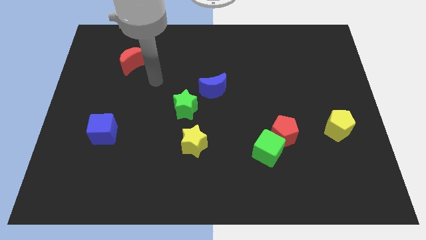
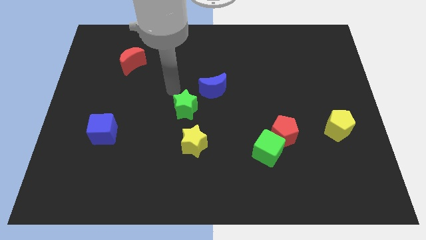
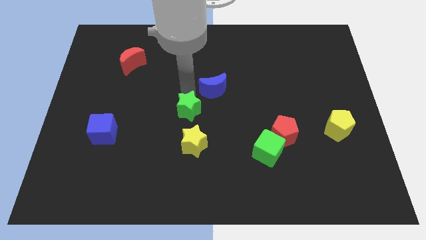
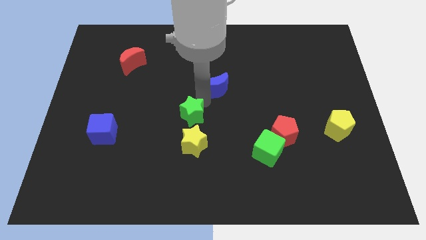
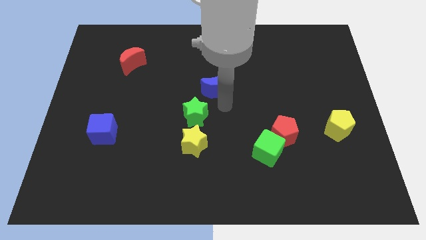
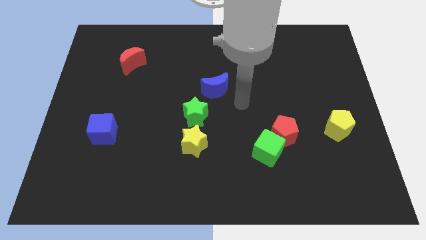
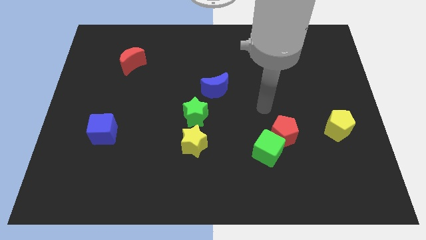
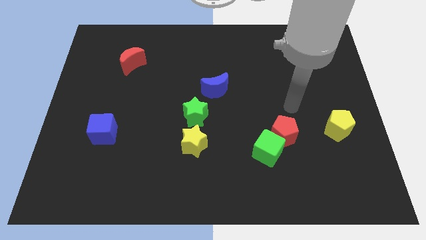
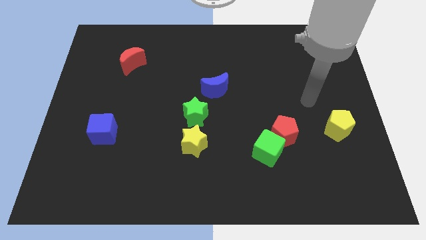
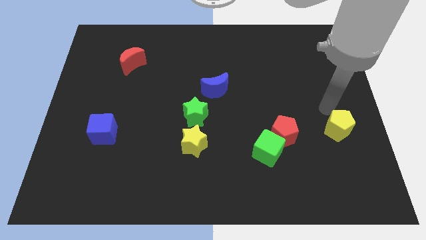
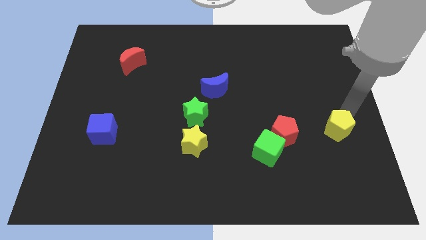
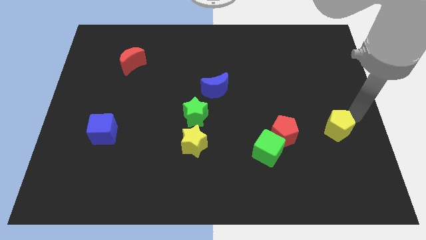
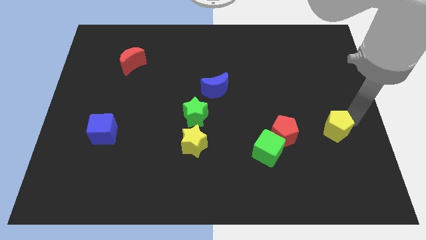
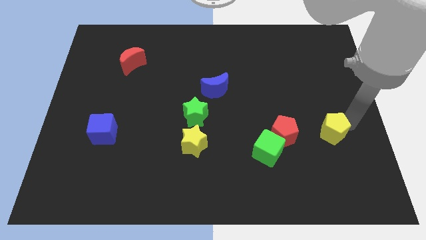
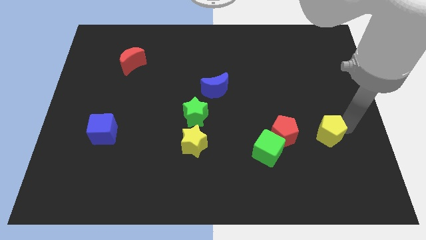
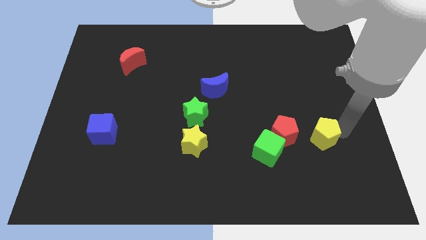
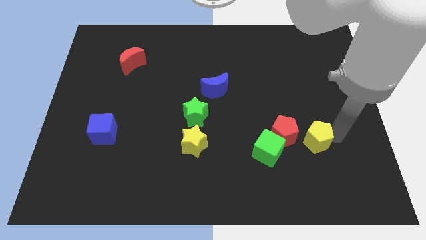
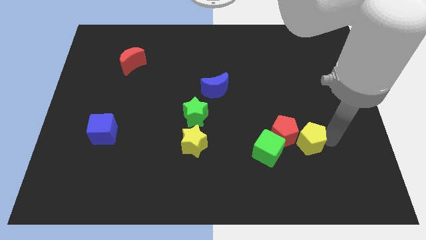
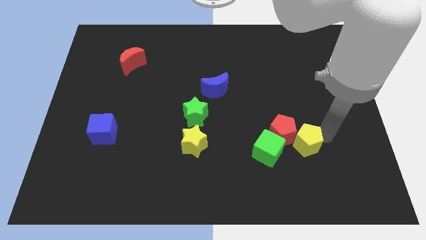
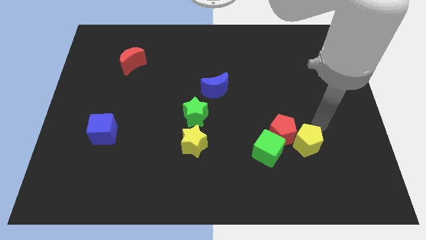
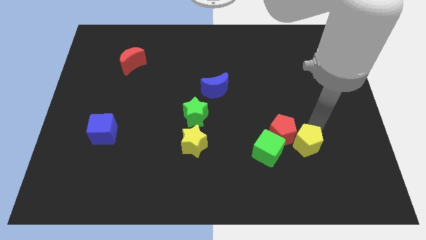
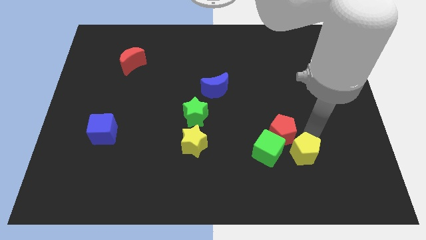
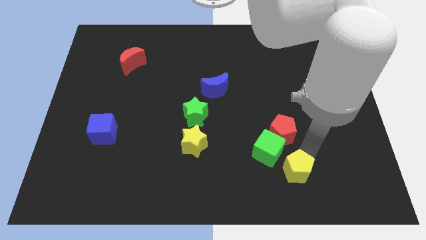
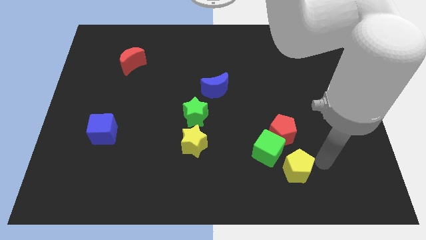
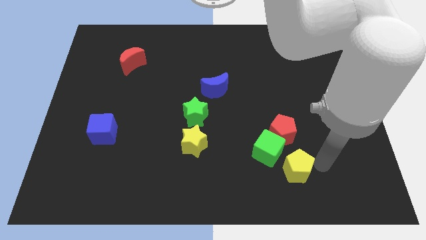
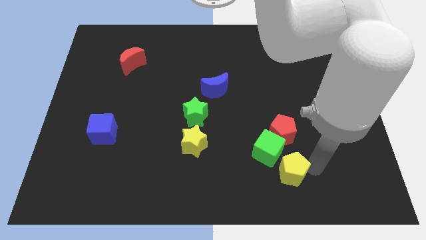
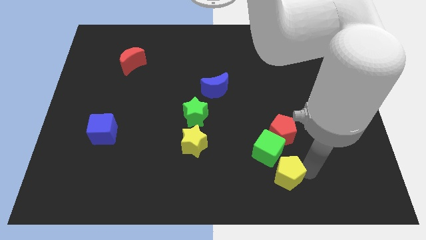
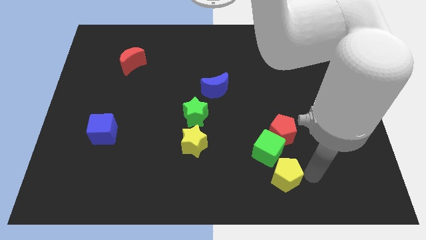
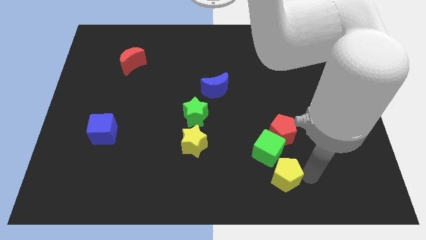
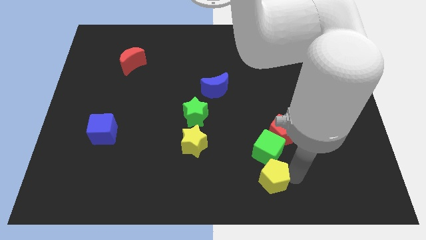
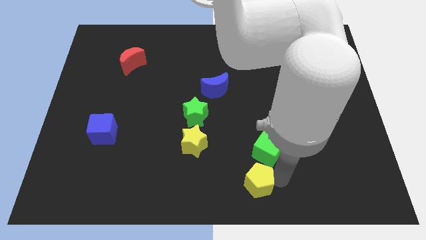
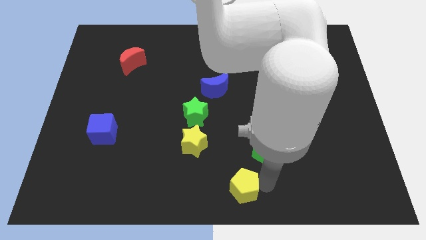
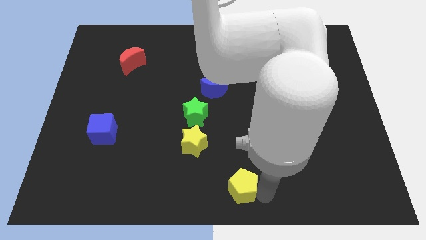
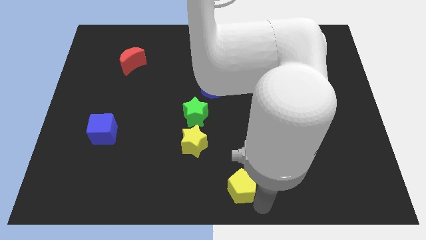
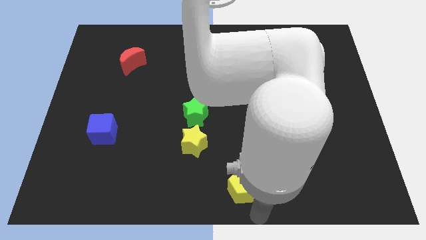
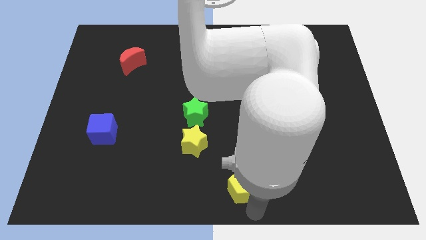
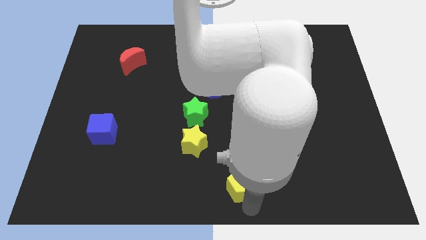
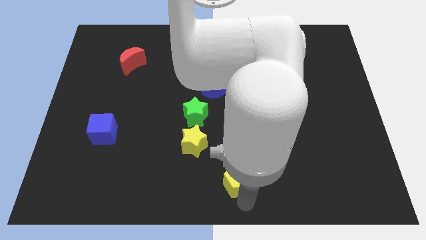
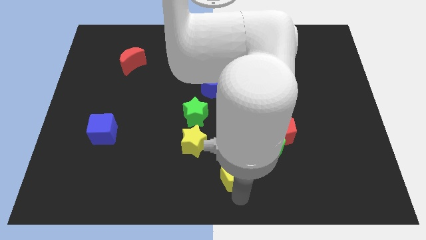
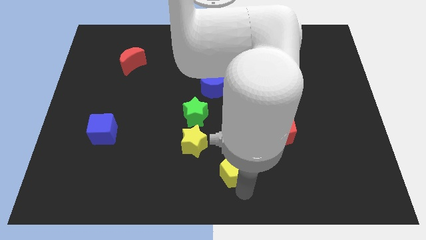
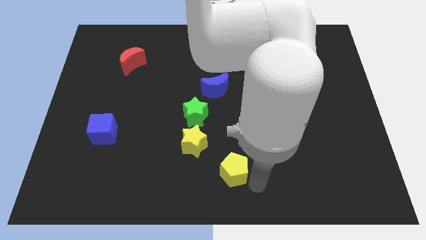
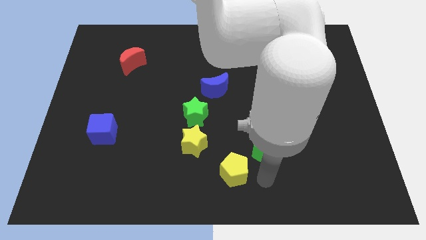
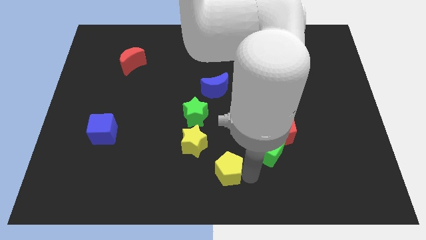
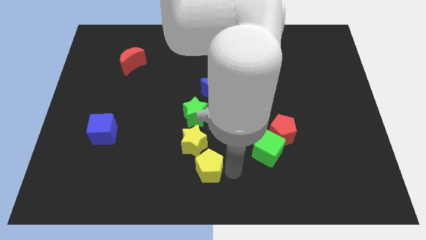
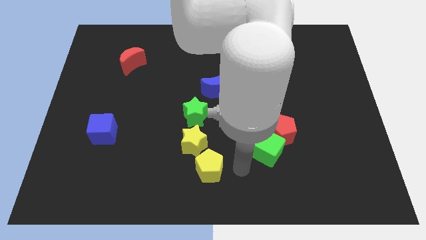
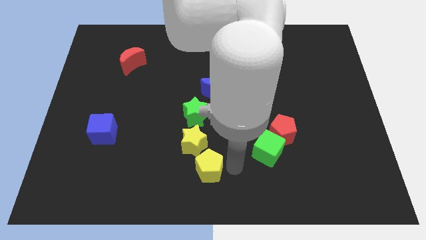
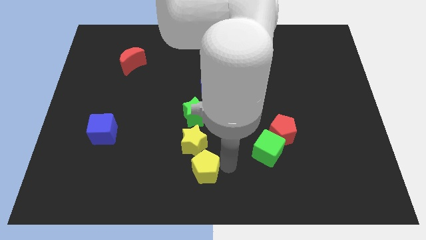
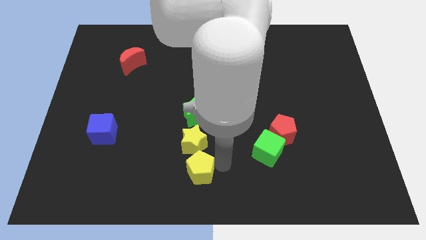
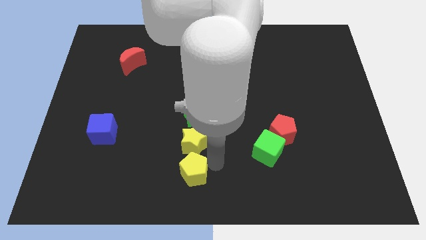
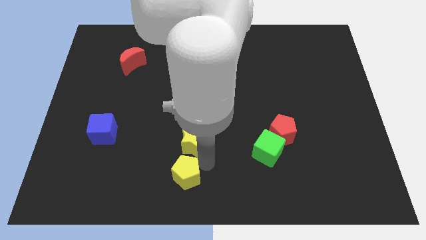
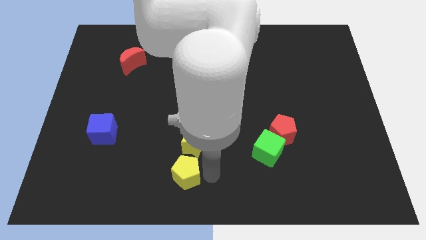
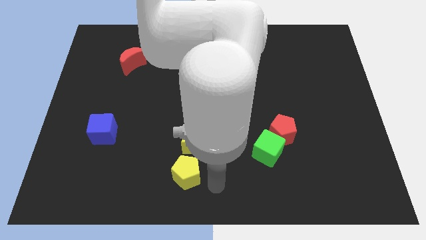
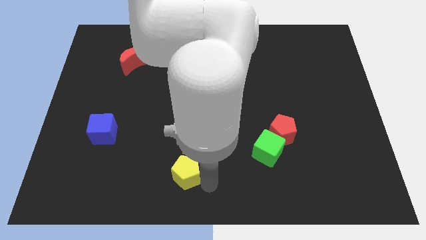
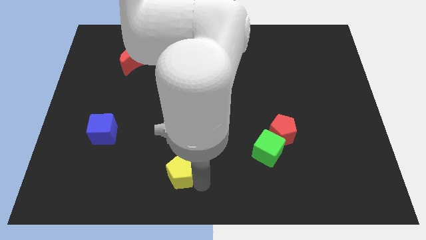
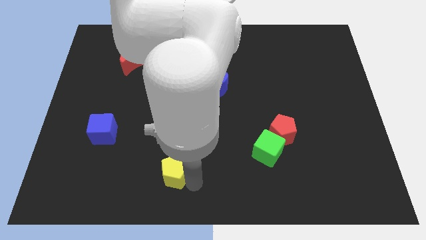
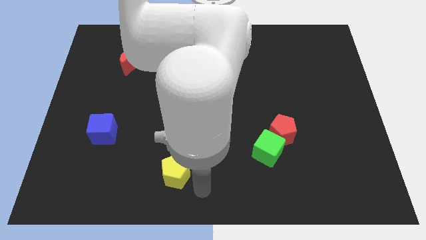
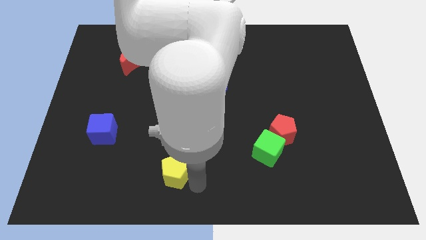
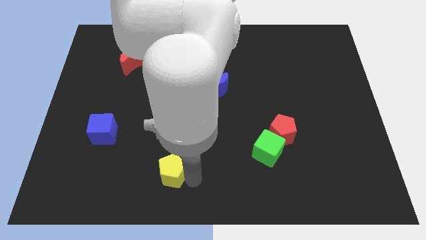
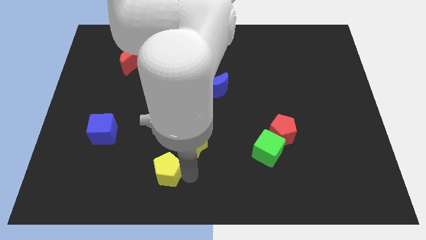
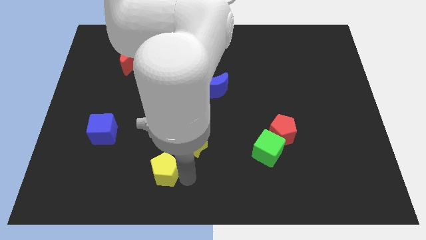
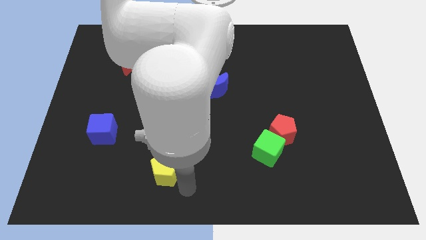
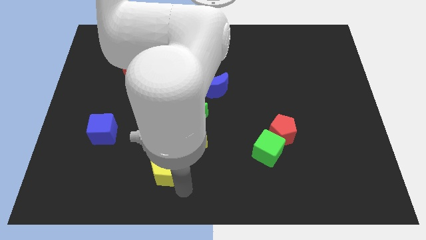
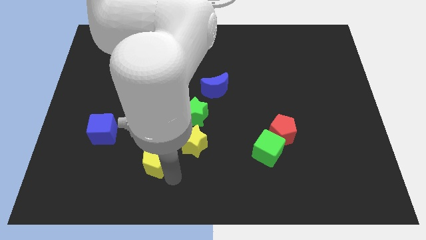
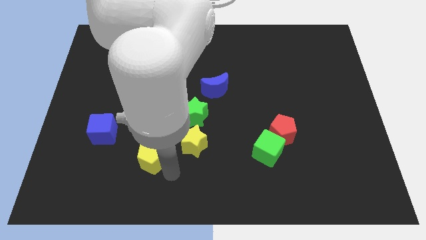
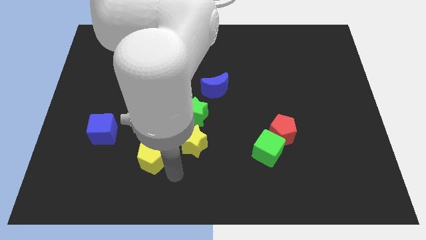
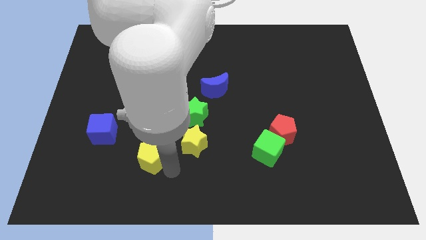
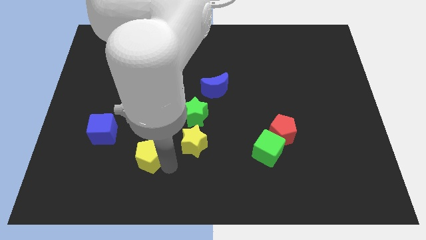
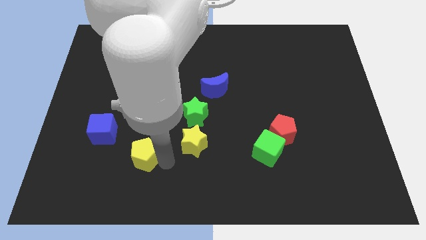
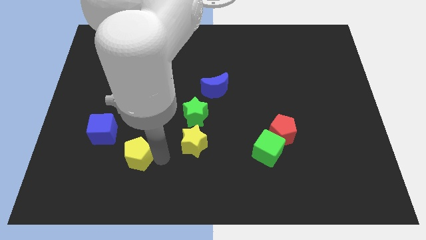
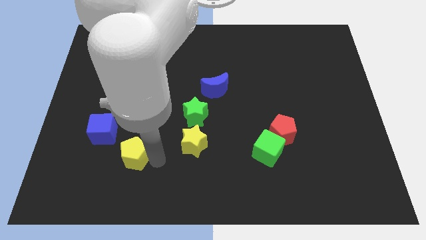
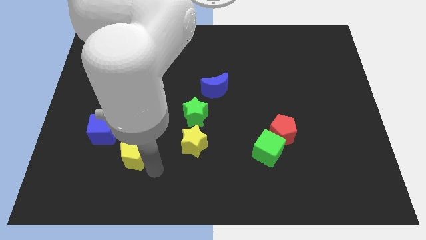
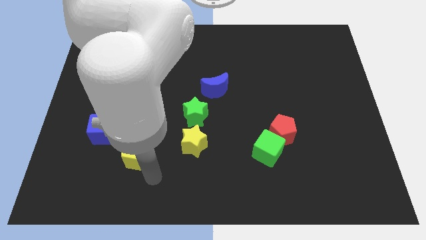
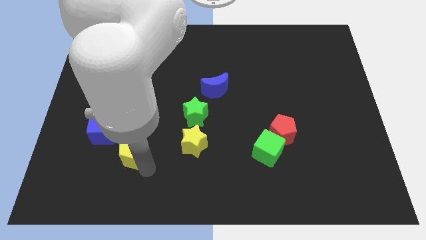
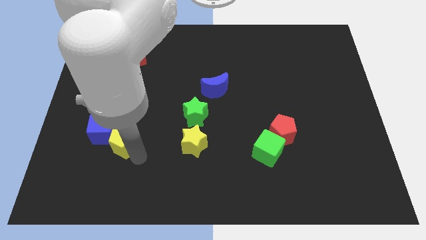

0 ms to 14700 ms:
move the yellow pentagon towards the blue cube
